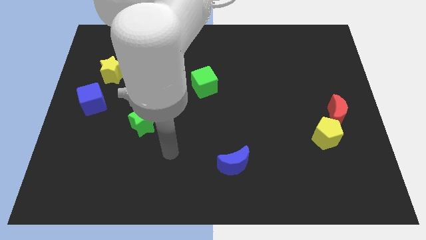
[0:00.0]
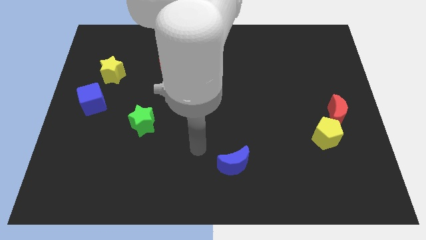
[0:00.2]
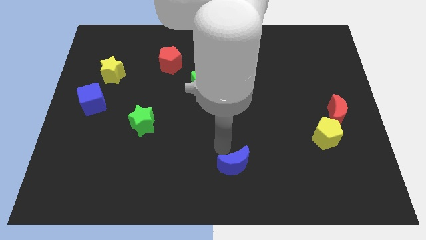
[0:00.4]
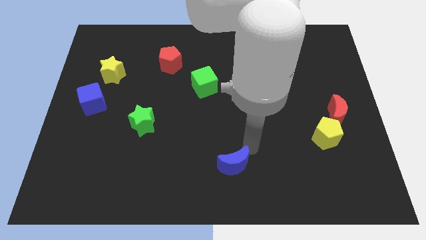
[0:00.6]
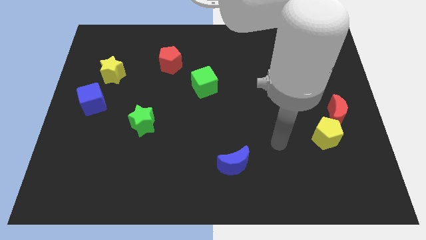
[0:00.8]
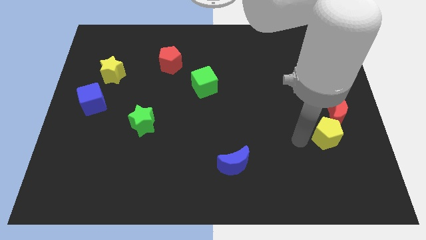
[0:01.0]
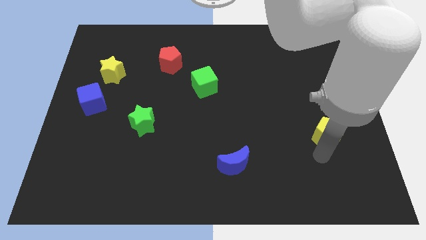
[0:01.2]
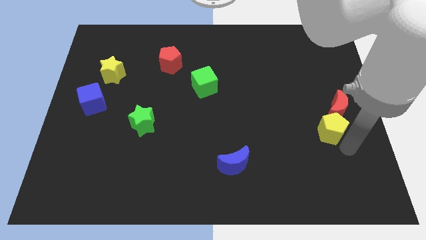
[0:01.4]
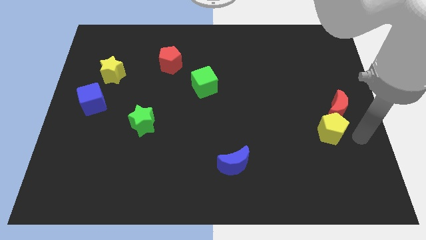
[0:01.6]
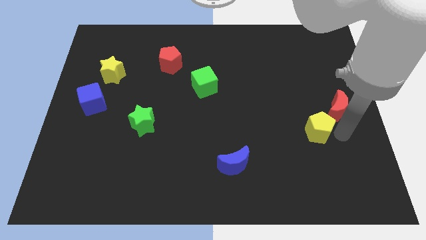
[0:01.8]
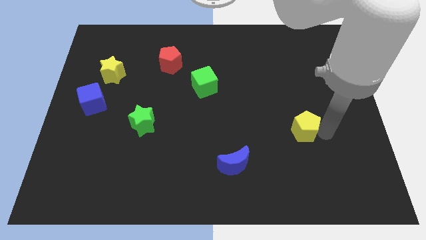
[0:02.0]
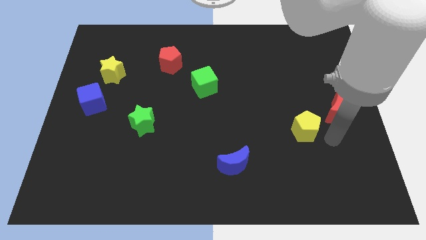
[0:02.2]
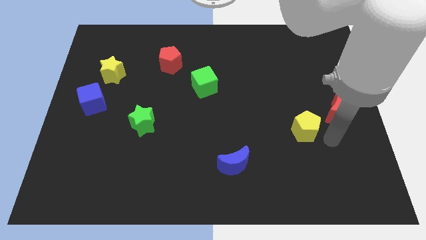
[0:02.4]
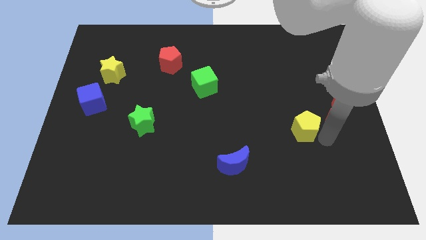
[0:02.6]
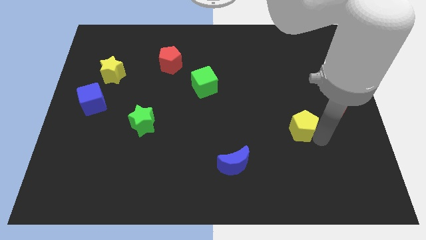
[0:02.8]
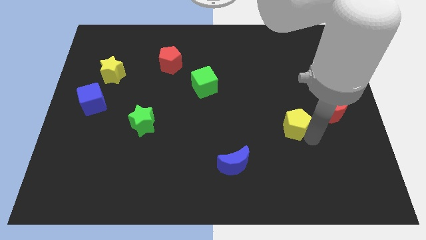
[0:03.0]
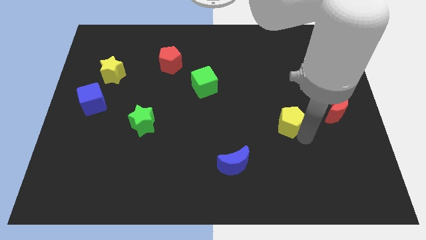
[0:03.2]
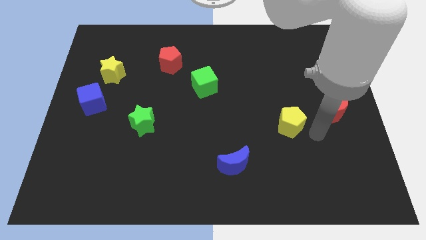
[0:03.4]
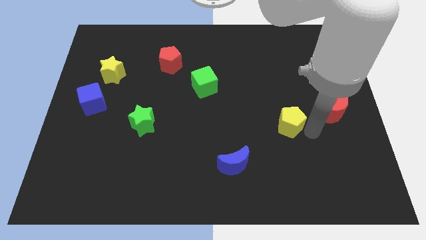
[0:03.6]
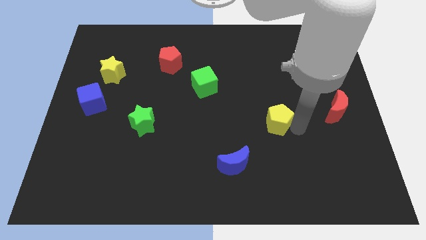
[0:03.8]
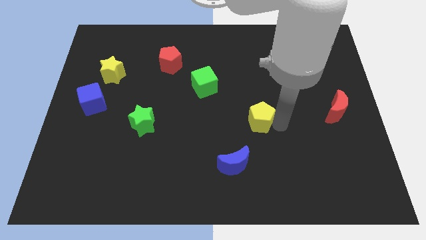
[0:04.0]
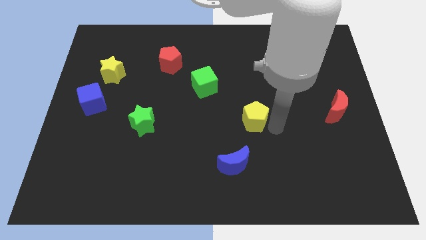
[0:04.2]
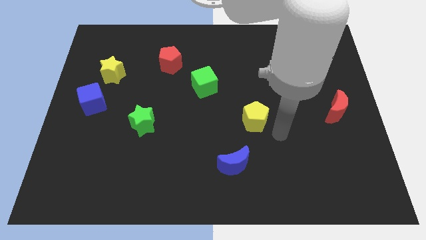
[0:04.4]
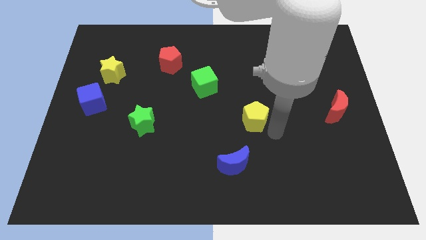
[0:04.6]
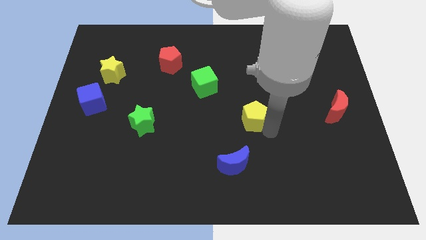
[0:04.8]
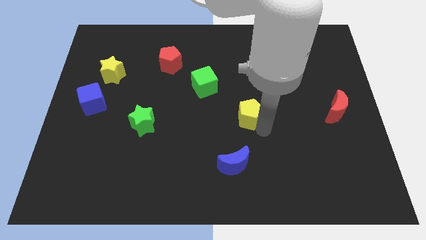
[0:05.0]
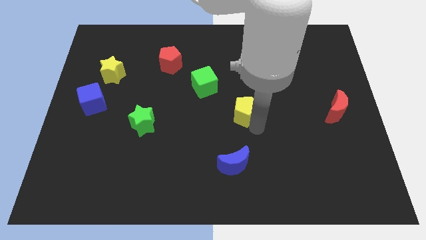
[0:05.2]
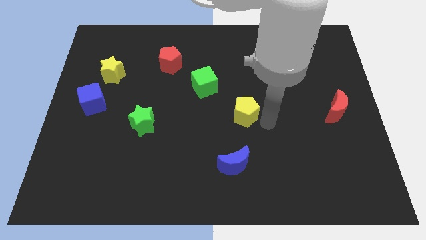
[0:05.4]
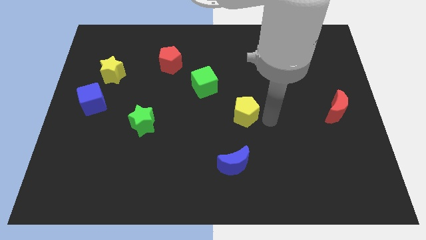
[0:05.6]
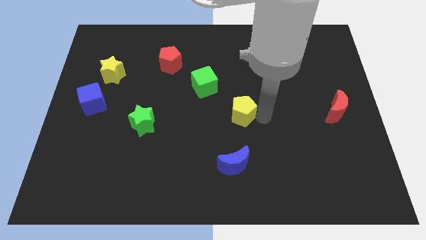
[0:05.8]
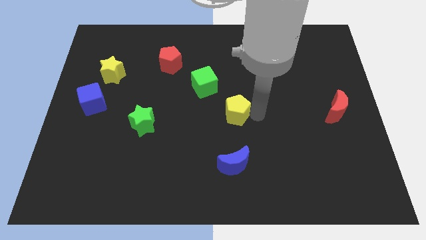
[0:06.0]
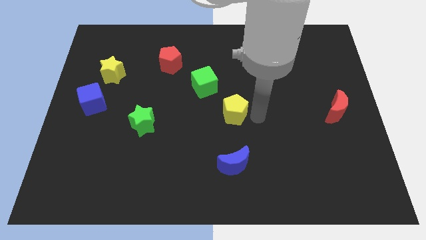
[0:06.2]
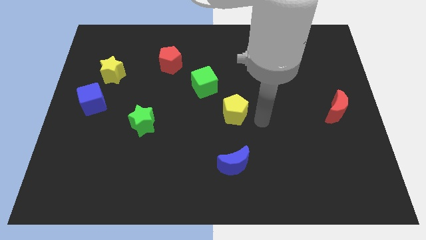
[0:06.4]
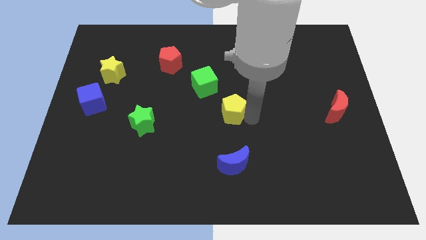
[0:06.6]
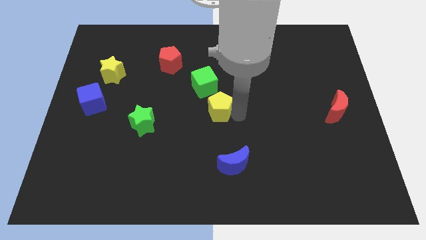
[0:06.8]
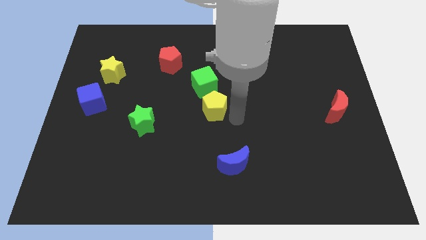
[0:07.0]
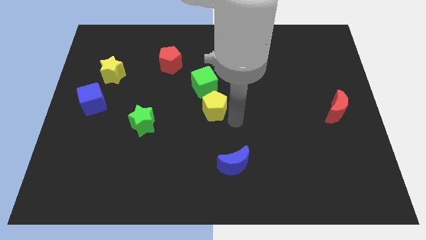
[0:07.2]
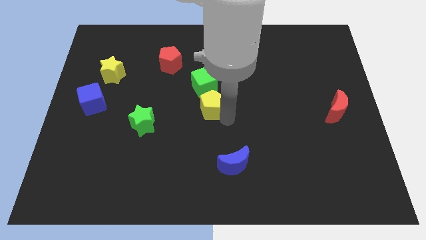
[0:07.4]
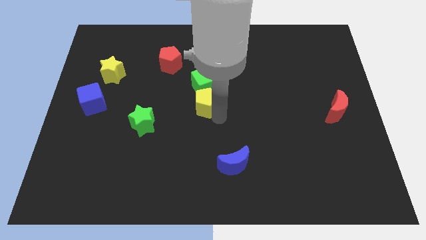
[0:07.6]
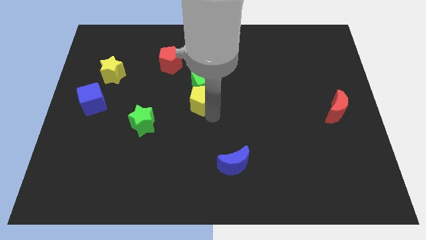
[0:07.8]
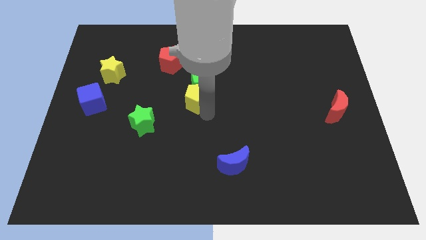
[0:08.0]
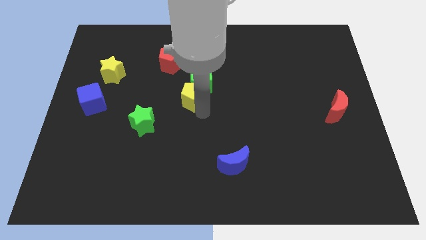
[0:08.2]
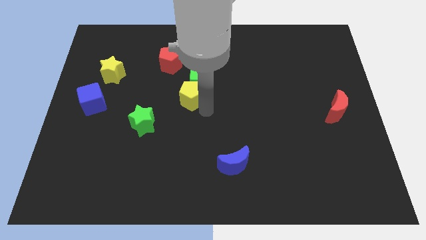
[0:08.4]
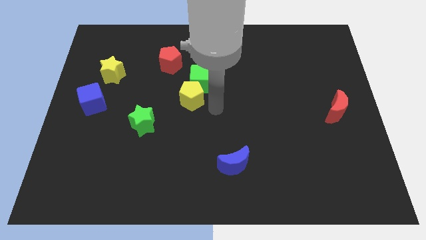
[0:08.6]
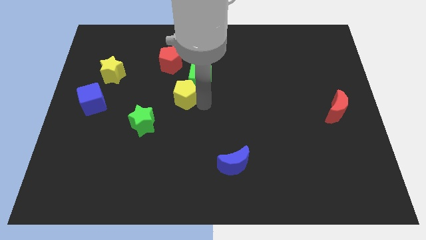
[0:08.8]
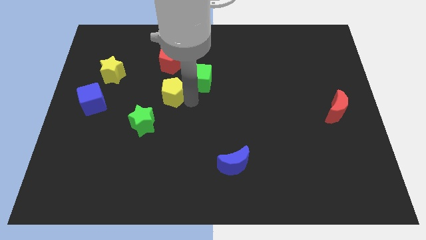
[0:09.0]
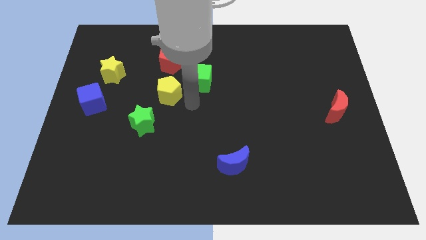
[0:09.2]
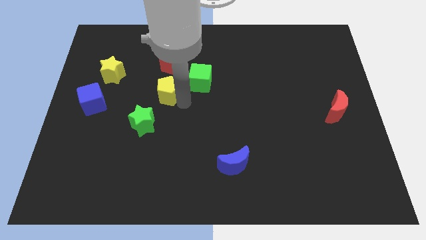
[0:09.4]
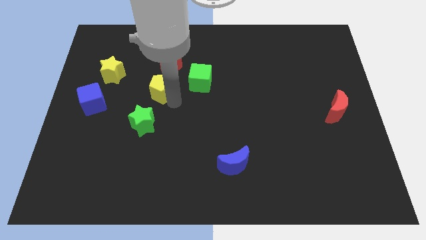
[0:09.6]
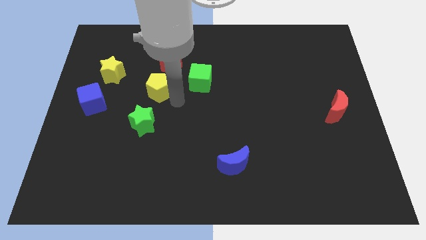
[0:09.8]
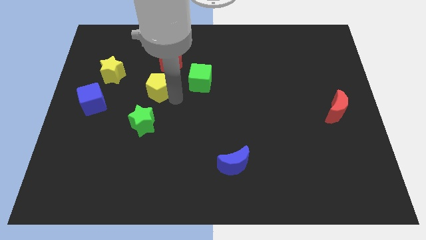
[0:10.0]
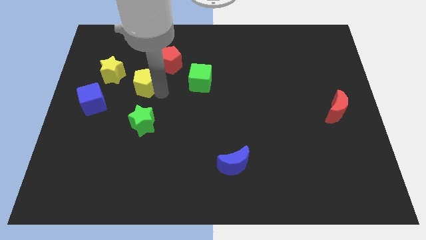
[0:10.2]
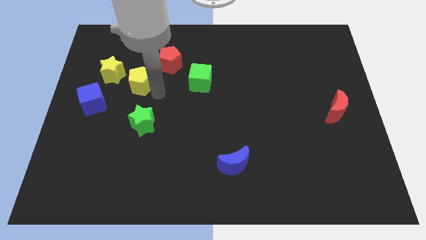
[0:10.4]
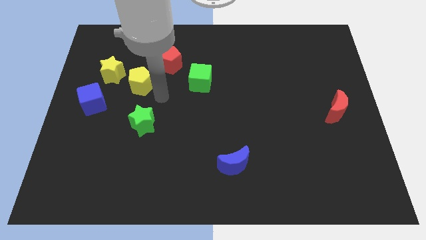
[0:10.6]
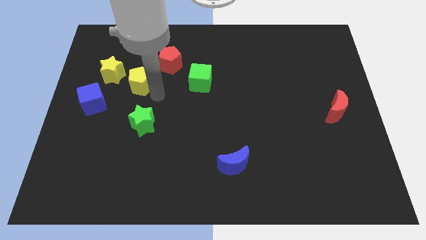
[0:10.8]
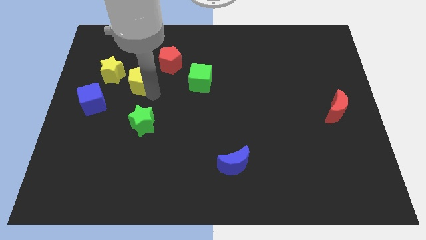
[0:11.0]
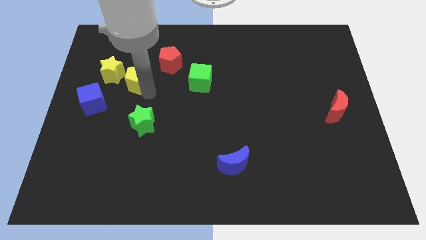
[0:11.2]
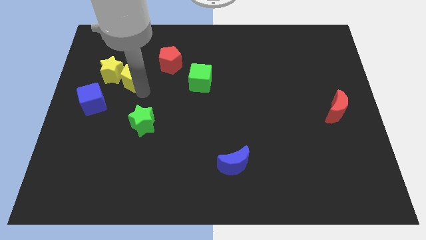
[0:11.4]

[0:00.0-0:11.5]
push the yellow pentagon next to the yellow star

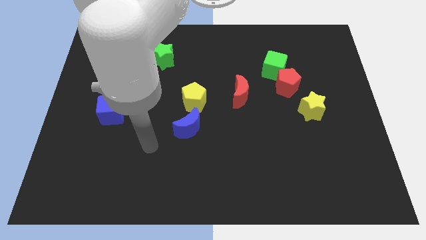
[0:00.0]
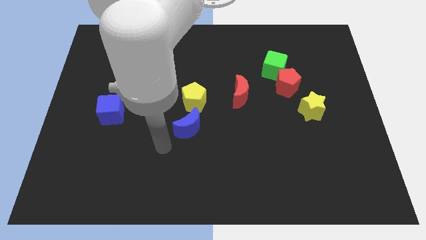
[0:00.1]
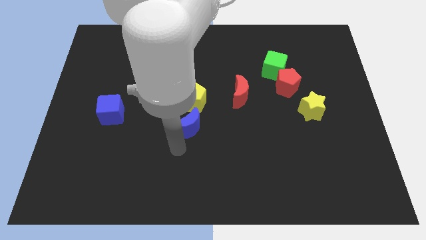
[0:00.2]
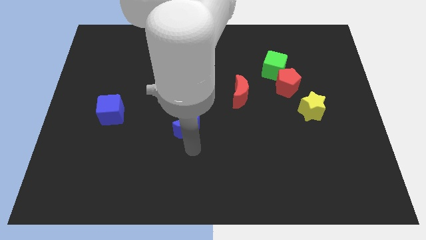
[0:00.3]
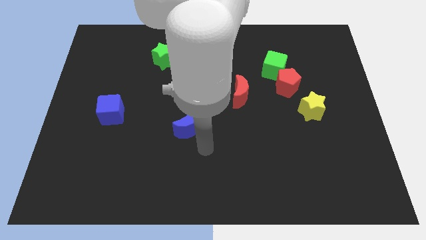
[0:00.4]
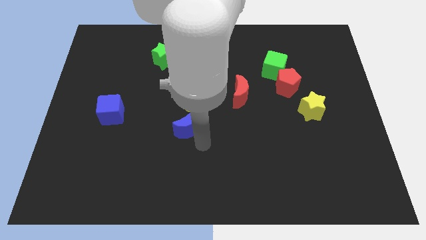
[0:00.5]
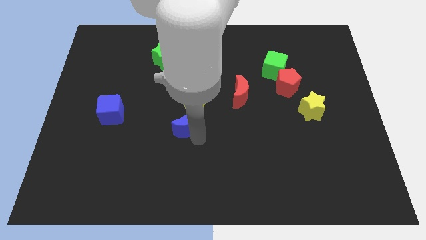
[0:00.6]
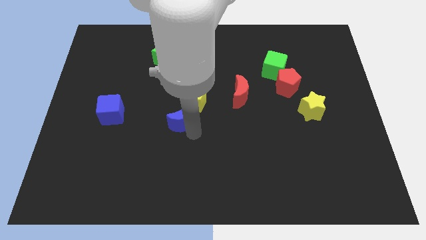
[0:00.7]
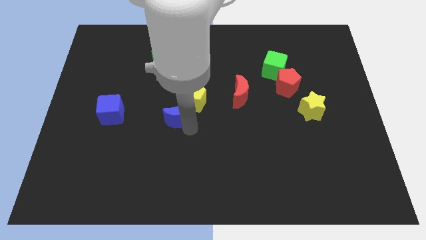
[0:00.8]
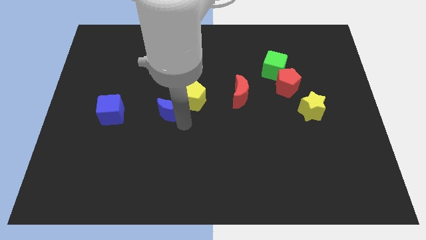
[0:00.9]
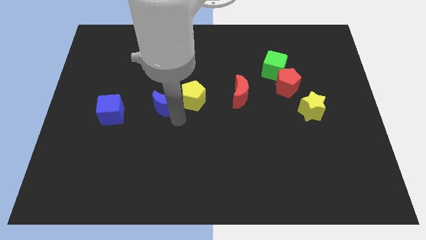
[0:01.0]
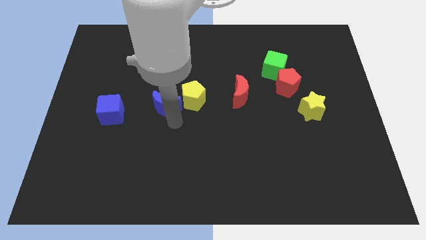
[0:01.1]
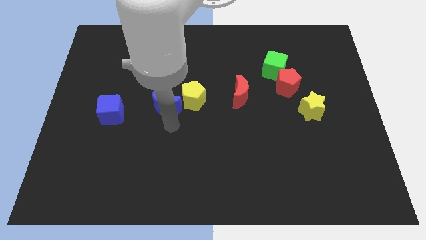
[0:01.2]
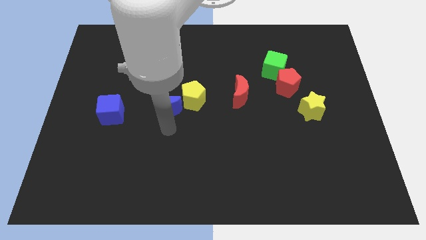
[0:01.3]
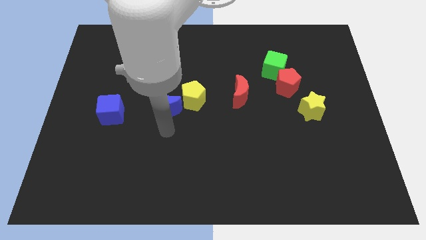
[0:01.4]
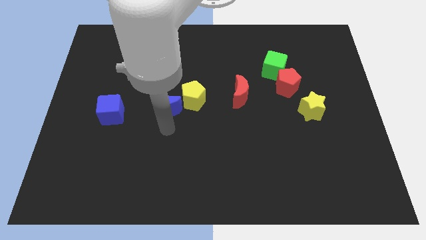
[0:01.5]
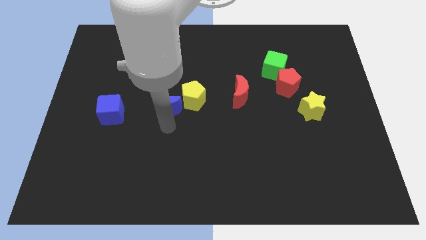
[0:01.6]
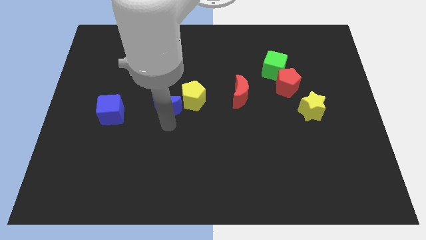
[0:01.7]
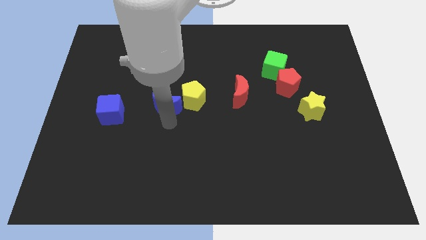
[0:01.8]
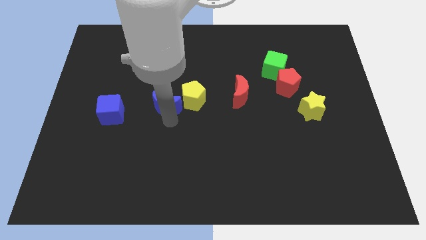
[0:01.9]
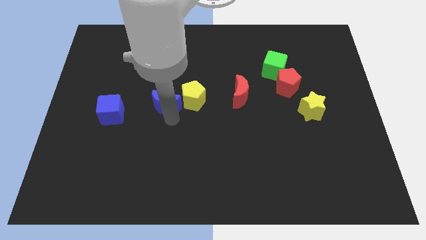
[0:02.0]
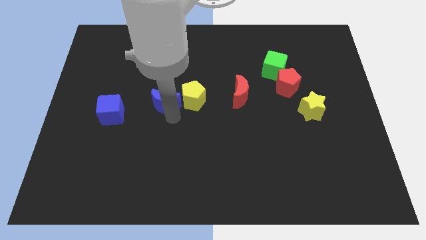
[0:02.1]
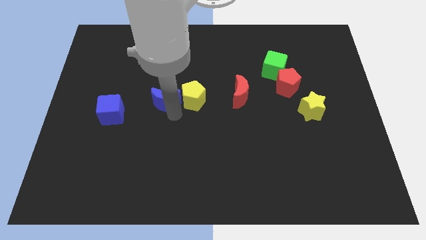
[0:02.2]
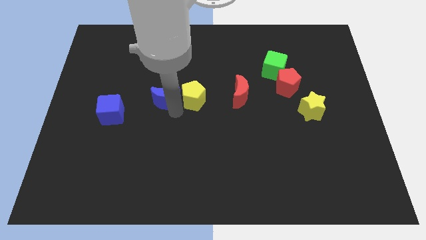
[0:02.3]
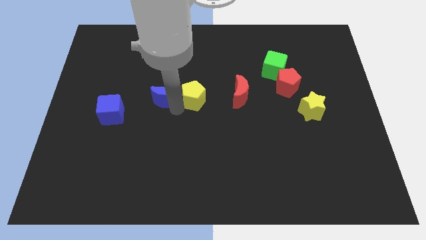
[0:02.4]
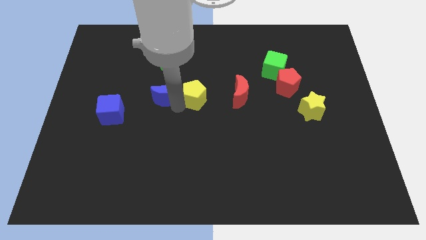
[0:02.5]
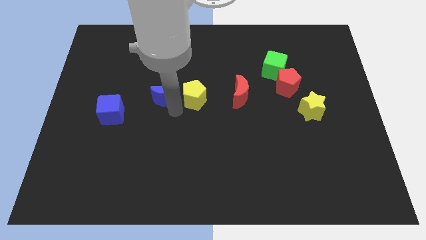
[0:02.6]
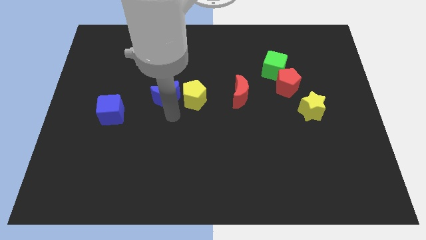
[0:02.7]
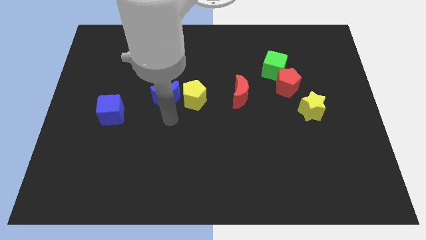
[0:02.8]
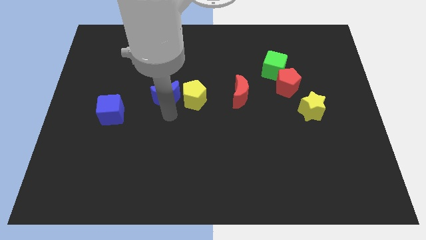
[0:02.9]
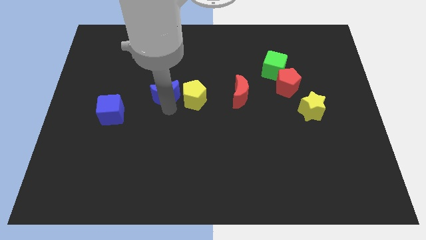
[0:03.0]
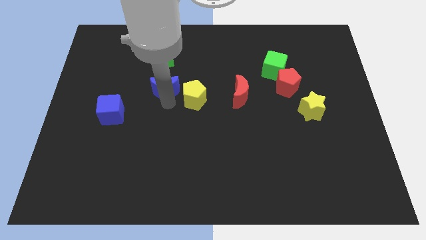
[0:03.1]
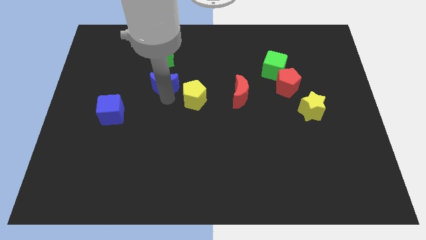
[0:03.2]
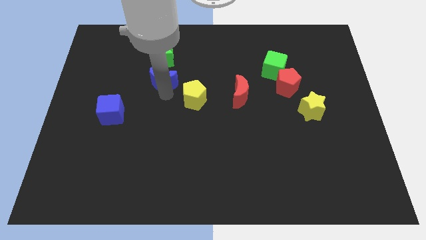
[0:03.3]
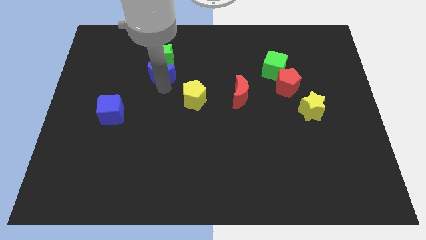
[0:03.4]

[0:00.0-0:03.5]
slide the blue moon close to the green star
